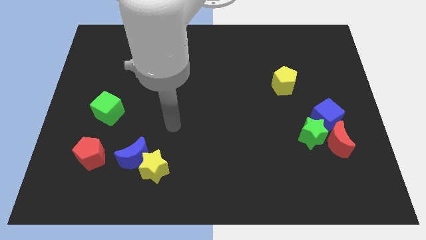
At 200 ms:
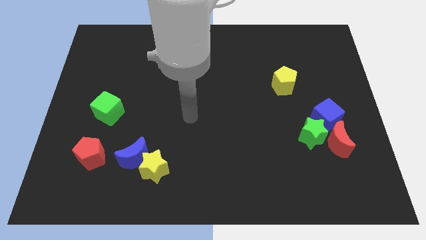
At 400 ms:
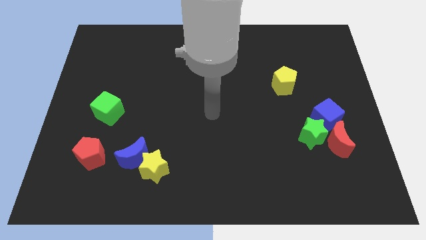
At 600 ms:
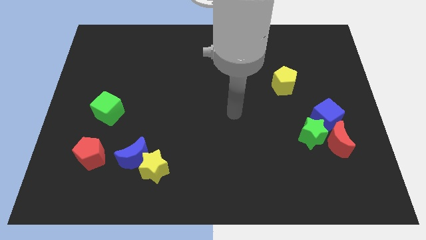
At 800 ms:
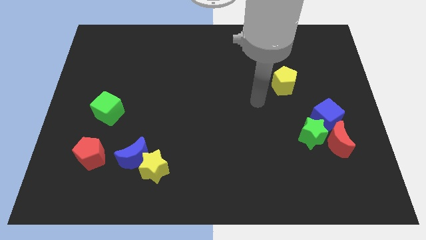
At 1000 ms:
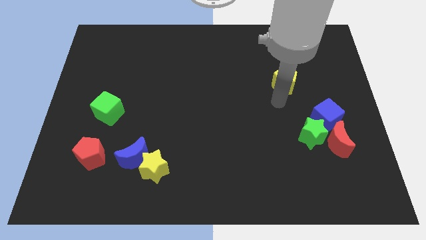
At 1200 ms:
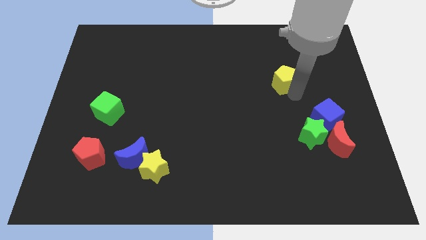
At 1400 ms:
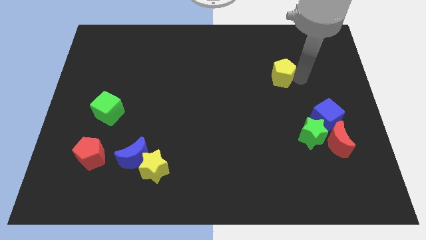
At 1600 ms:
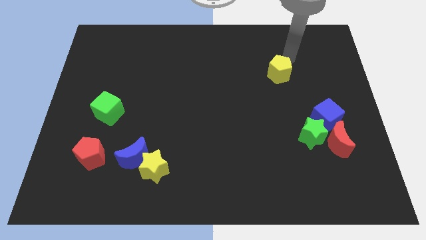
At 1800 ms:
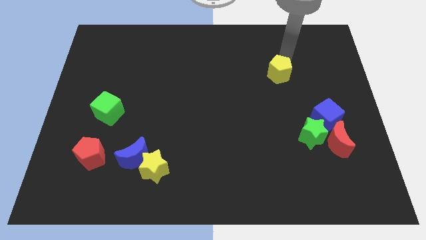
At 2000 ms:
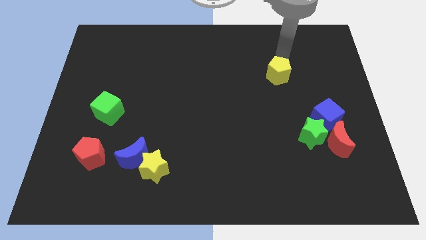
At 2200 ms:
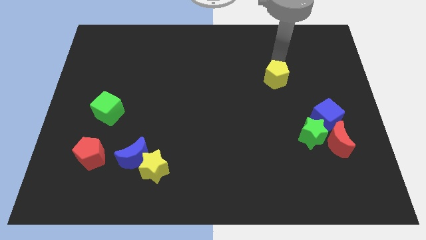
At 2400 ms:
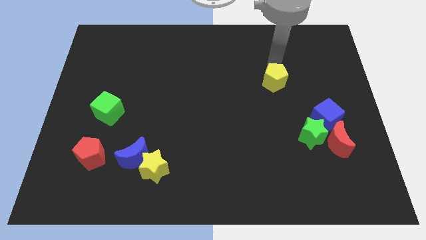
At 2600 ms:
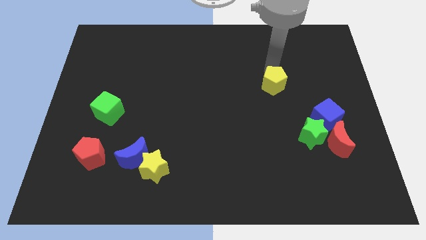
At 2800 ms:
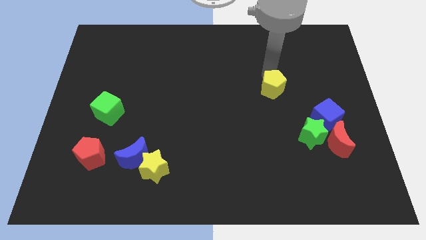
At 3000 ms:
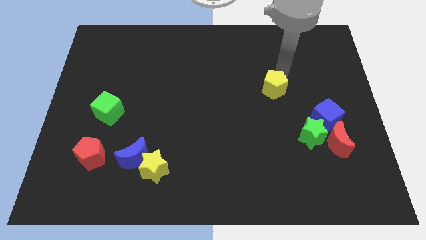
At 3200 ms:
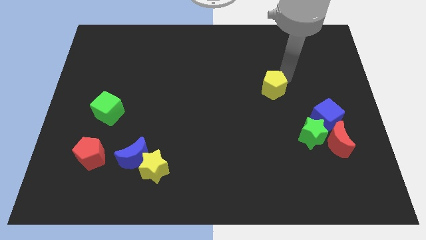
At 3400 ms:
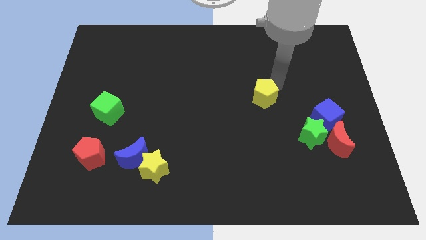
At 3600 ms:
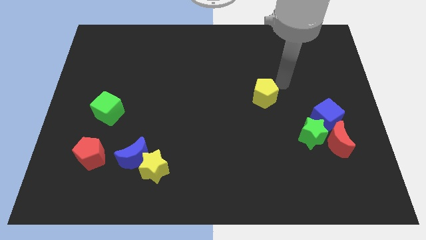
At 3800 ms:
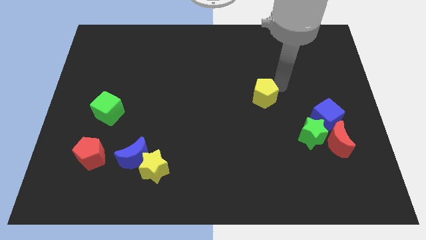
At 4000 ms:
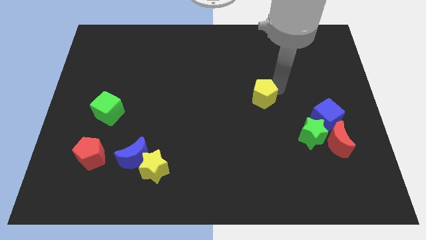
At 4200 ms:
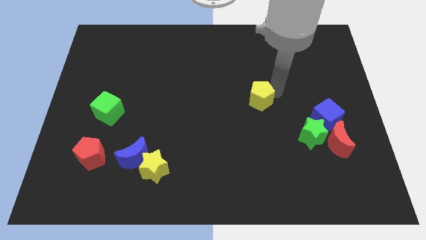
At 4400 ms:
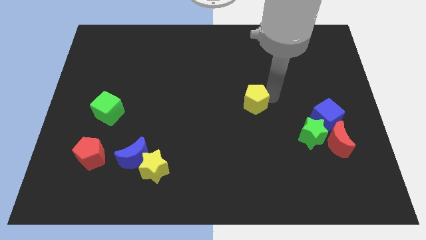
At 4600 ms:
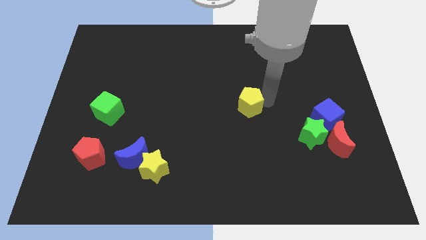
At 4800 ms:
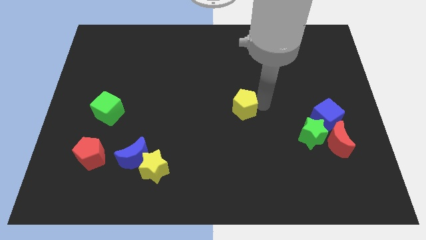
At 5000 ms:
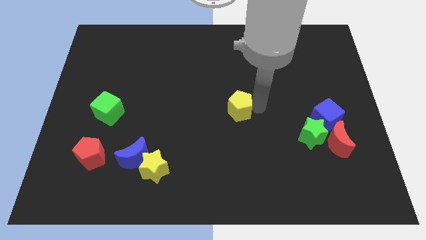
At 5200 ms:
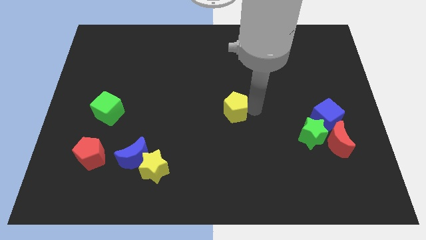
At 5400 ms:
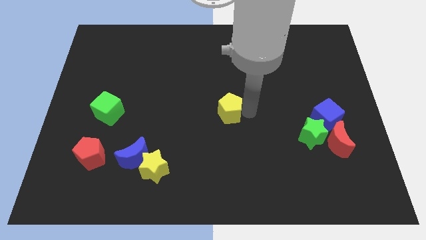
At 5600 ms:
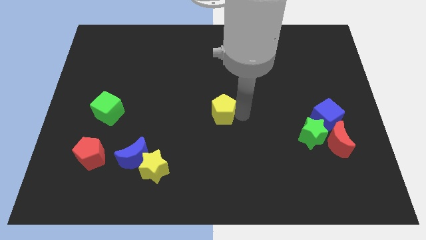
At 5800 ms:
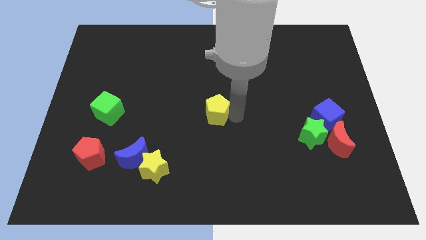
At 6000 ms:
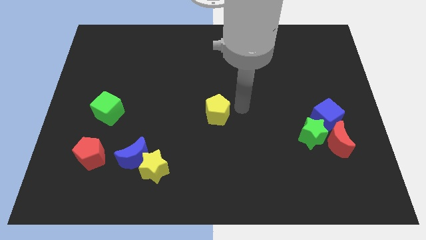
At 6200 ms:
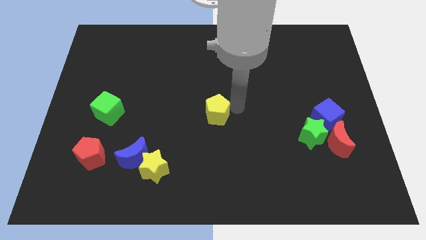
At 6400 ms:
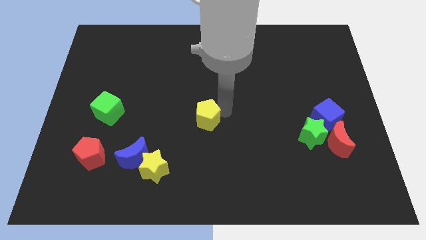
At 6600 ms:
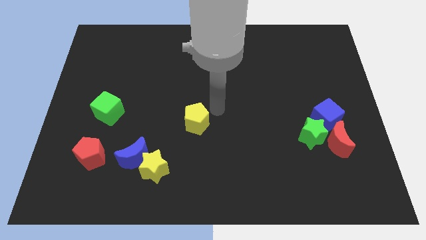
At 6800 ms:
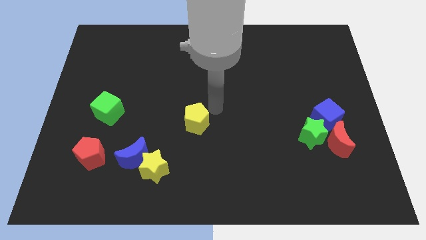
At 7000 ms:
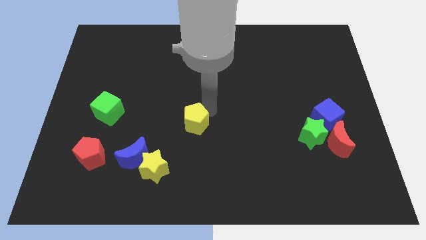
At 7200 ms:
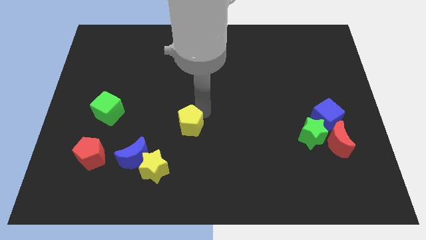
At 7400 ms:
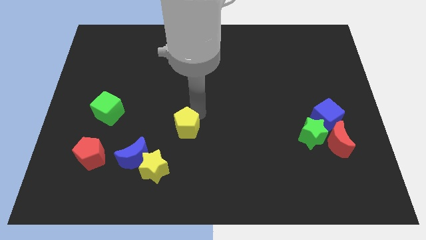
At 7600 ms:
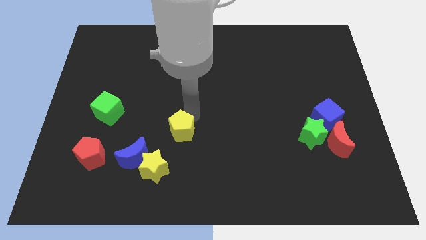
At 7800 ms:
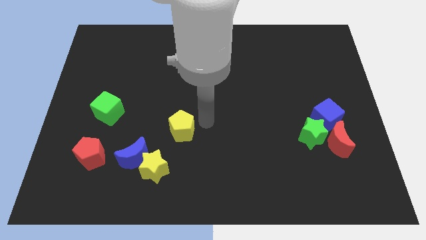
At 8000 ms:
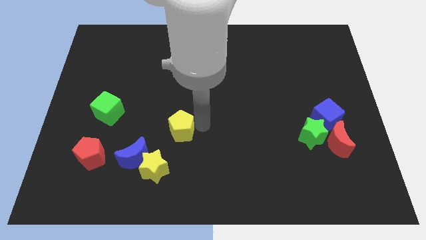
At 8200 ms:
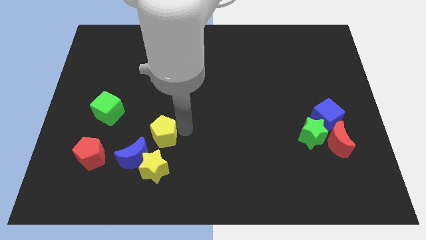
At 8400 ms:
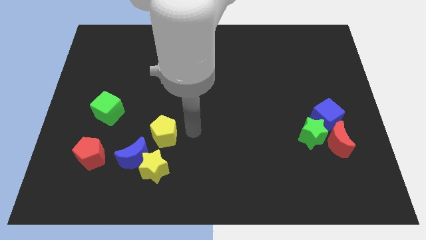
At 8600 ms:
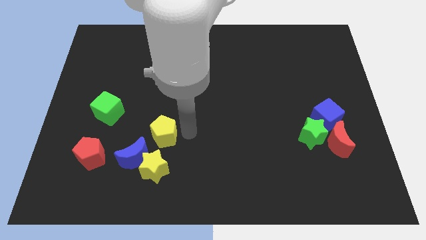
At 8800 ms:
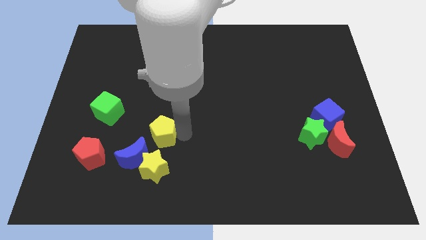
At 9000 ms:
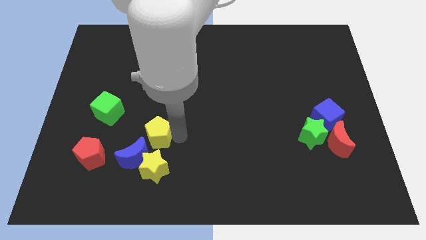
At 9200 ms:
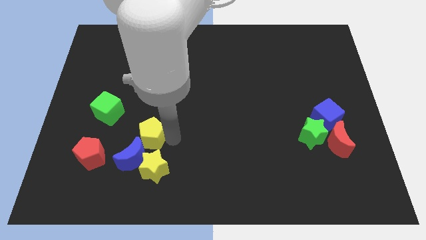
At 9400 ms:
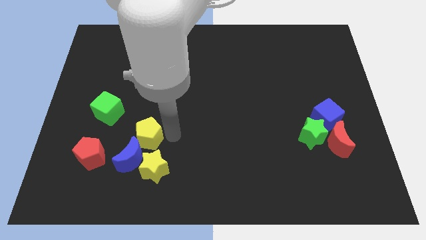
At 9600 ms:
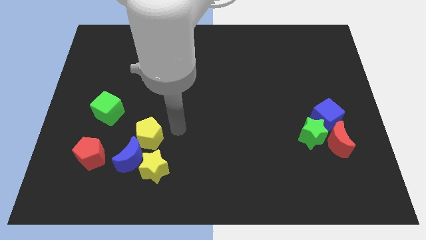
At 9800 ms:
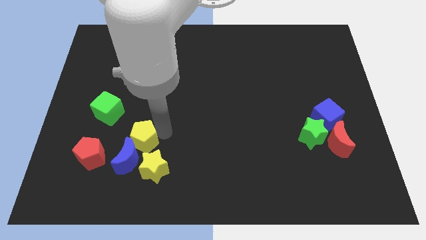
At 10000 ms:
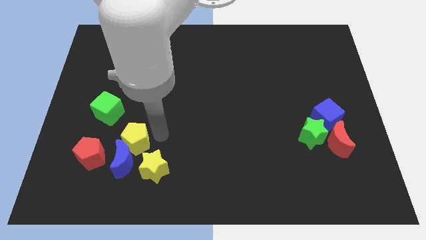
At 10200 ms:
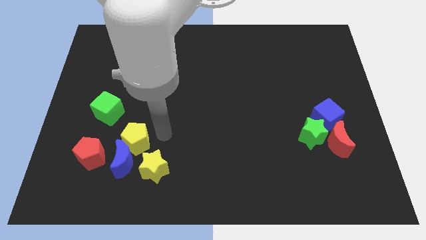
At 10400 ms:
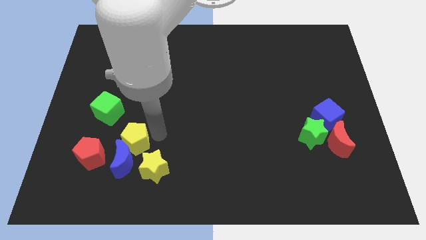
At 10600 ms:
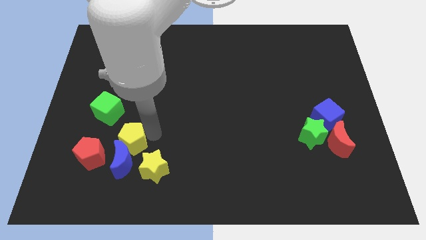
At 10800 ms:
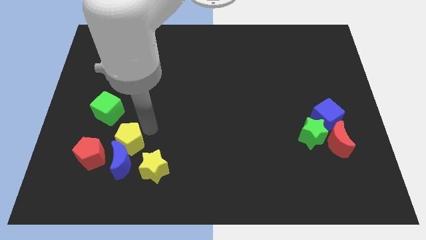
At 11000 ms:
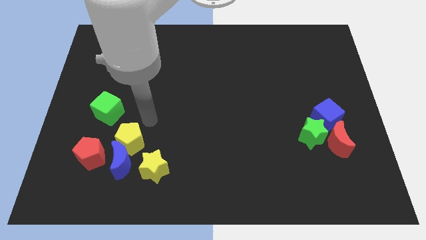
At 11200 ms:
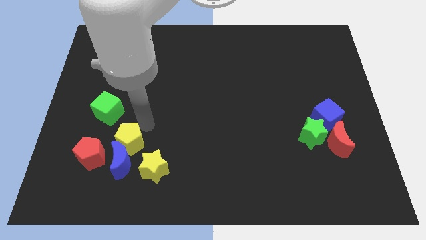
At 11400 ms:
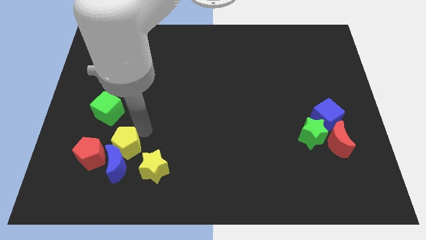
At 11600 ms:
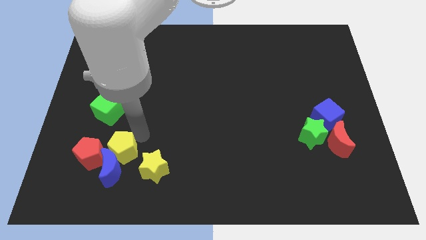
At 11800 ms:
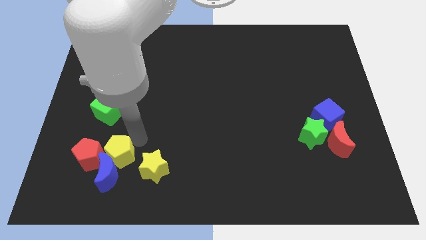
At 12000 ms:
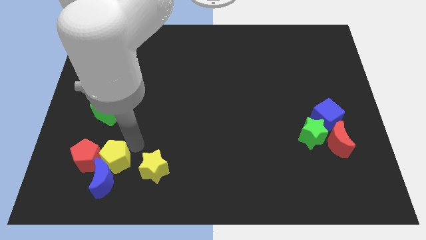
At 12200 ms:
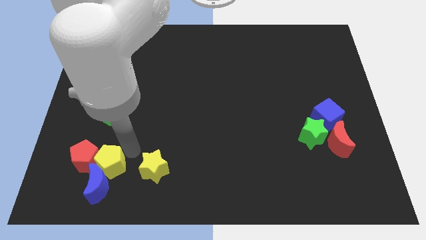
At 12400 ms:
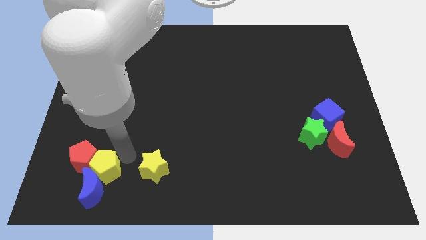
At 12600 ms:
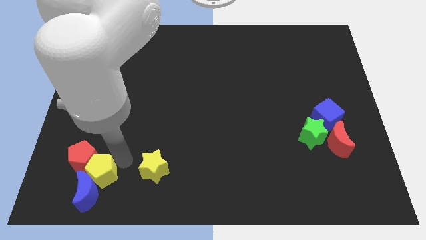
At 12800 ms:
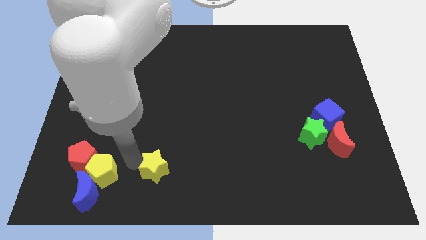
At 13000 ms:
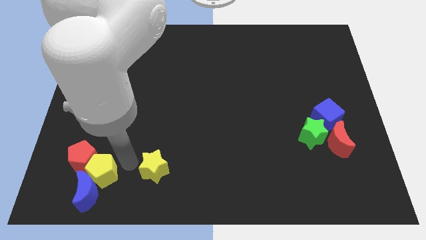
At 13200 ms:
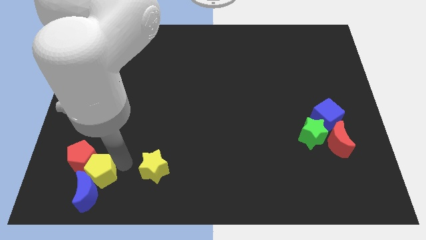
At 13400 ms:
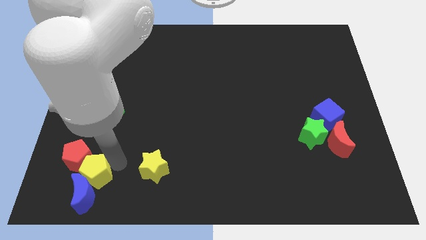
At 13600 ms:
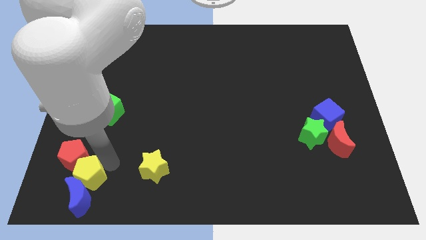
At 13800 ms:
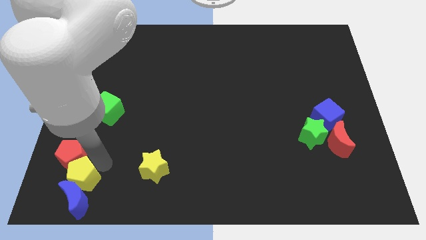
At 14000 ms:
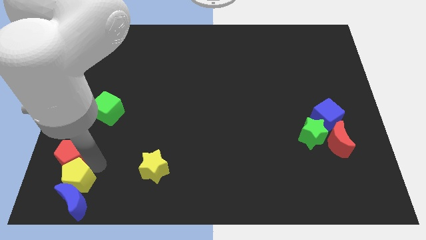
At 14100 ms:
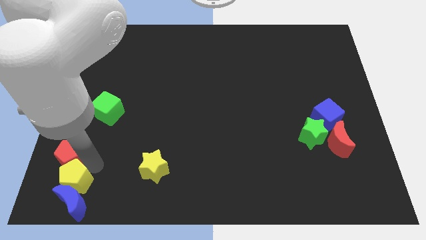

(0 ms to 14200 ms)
move the yellow pentagon to the bottom left of the board
